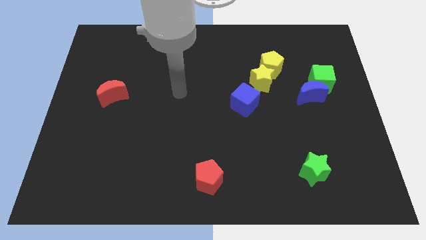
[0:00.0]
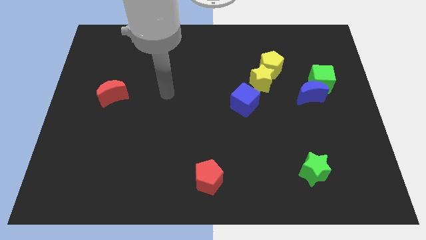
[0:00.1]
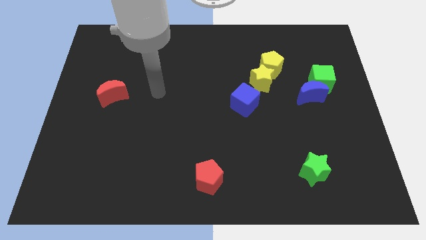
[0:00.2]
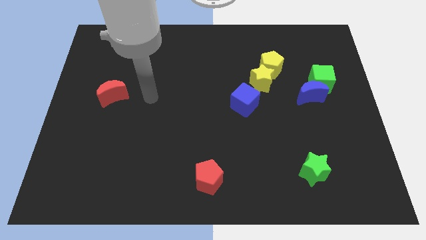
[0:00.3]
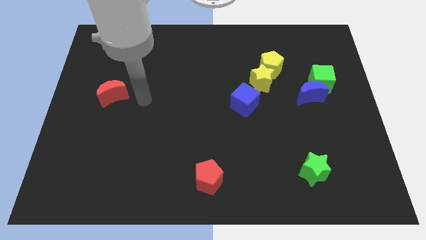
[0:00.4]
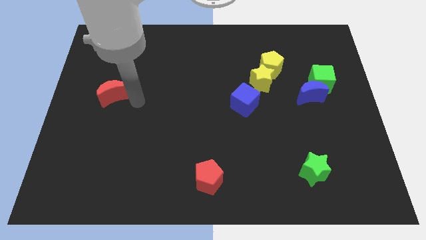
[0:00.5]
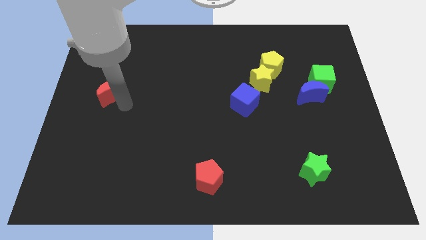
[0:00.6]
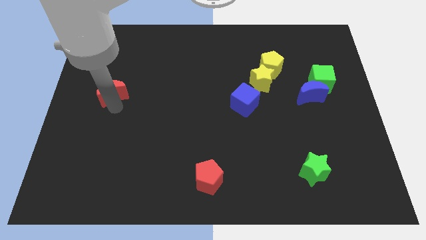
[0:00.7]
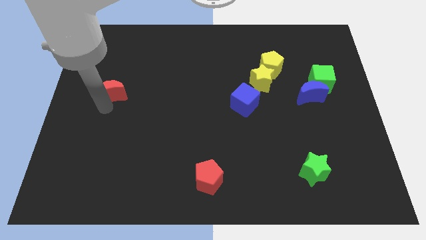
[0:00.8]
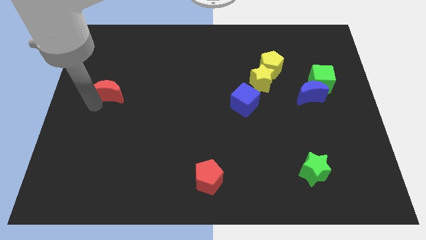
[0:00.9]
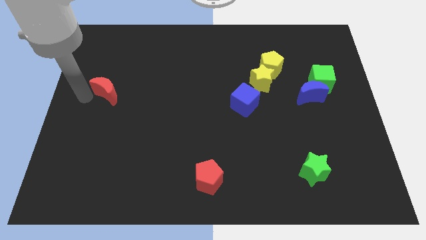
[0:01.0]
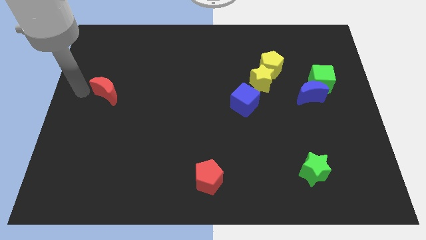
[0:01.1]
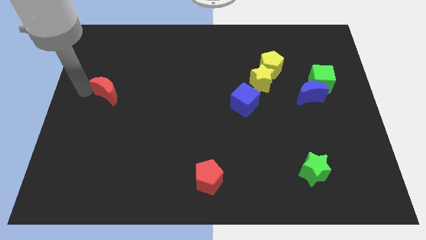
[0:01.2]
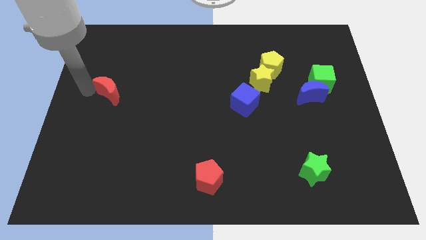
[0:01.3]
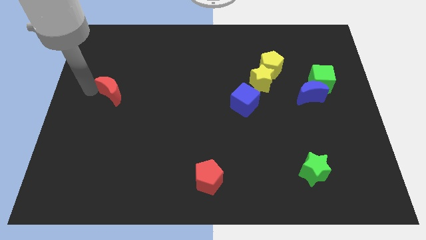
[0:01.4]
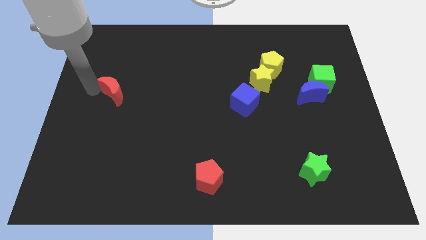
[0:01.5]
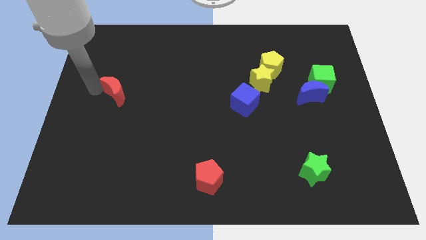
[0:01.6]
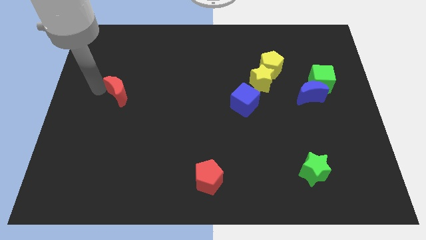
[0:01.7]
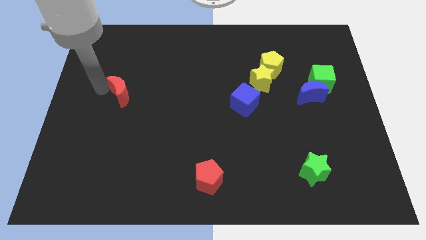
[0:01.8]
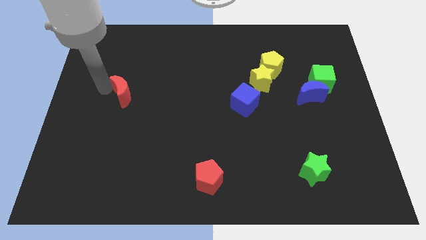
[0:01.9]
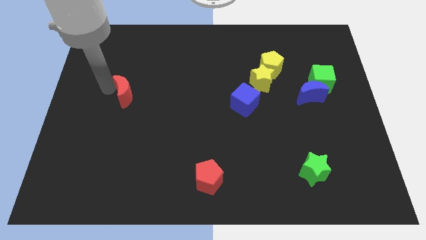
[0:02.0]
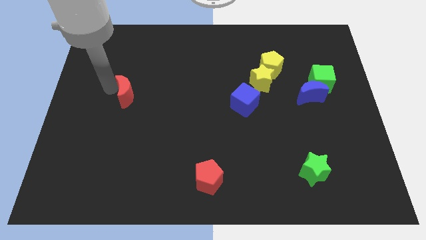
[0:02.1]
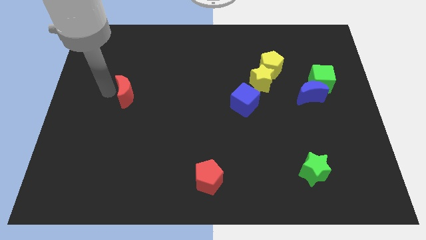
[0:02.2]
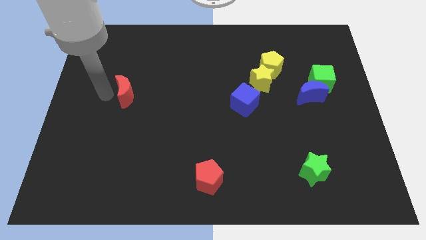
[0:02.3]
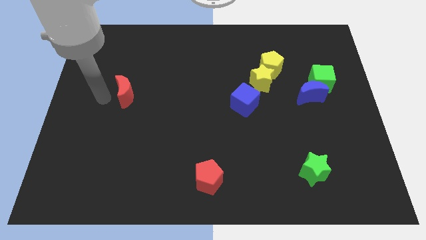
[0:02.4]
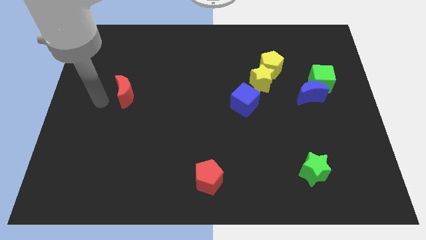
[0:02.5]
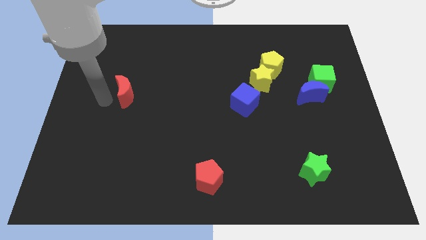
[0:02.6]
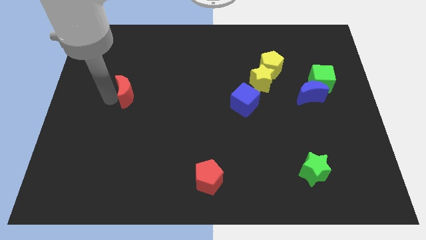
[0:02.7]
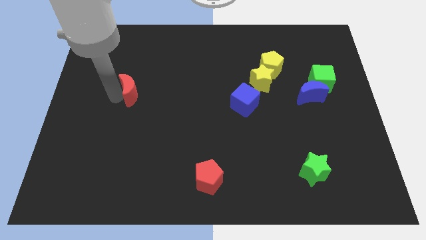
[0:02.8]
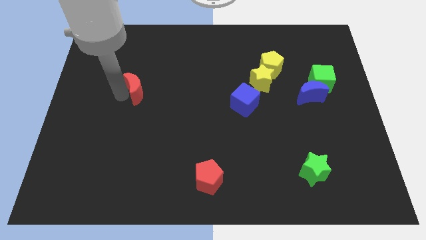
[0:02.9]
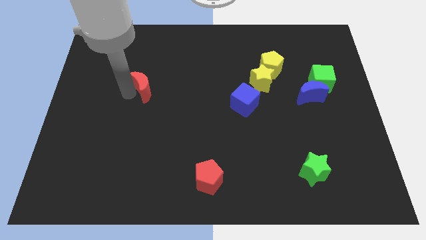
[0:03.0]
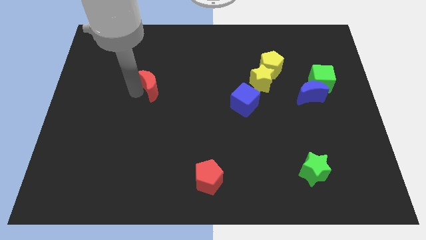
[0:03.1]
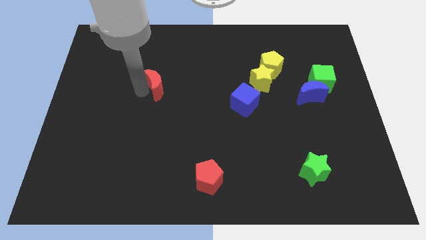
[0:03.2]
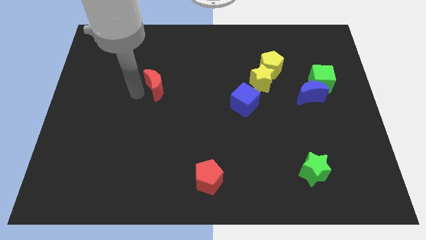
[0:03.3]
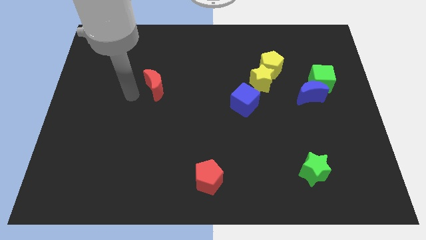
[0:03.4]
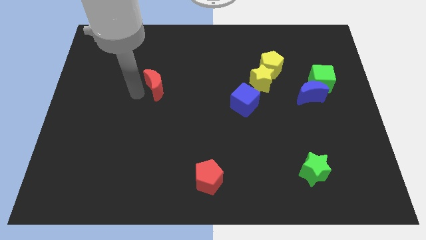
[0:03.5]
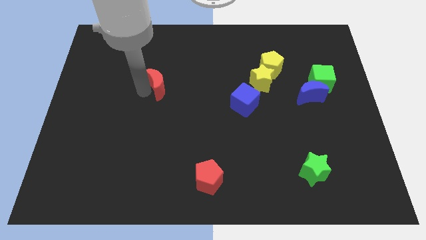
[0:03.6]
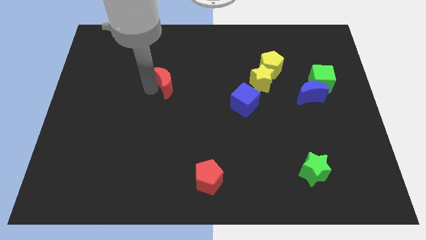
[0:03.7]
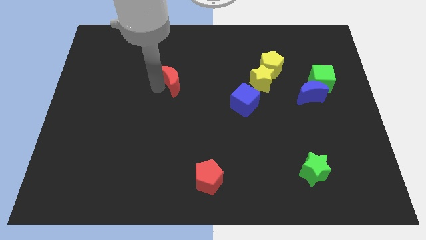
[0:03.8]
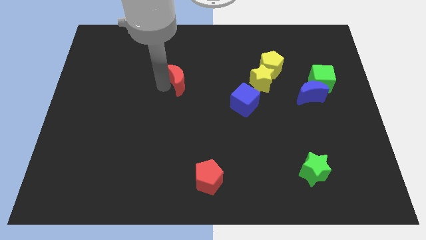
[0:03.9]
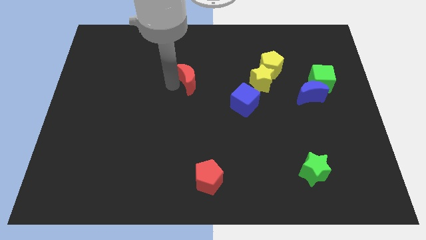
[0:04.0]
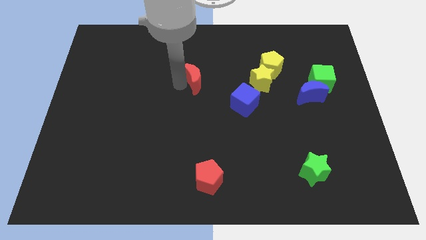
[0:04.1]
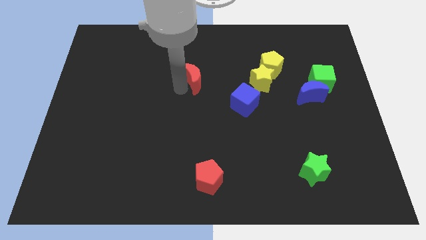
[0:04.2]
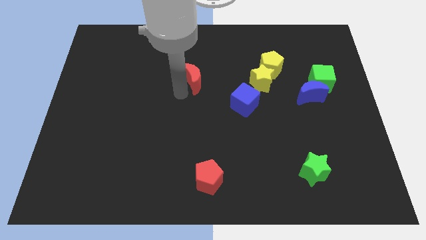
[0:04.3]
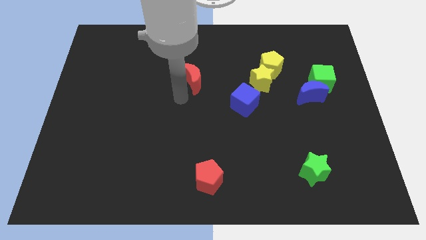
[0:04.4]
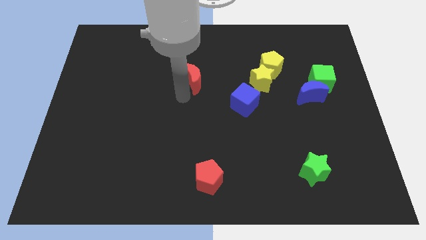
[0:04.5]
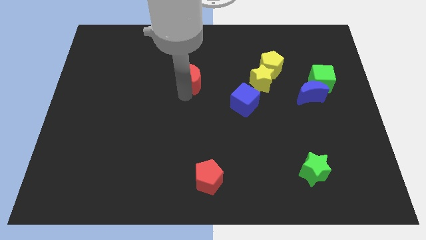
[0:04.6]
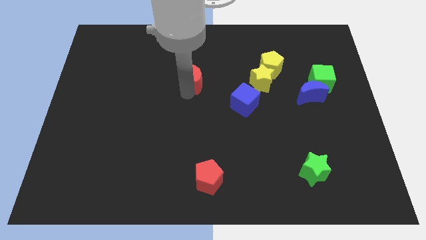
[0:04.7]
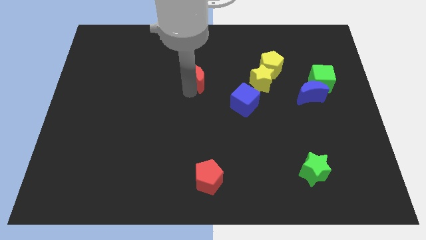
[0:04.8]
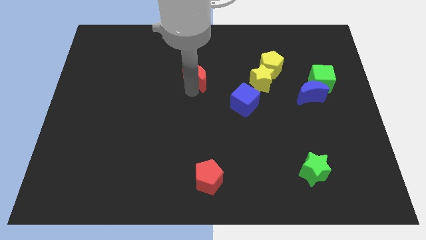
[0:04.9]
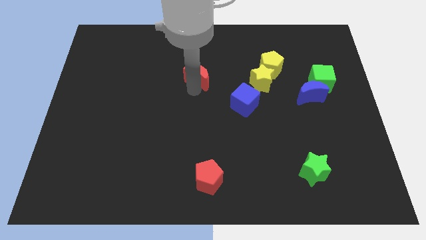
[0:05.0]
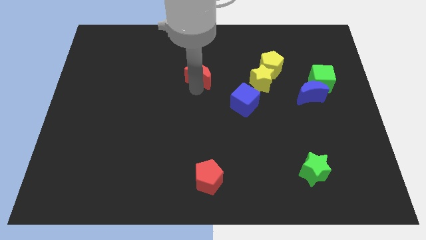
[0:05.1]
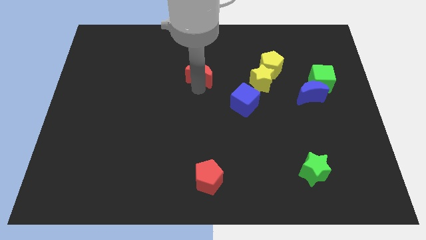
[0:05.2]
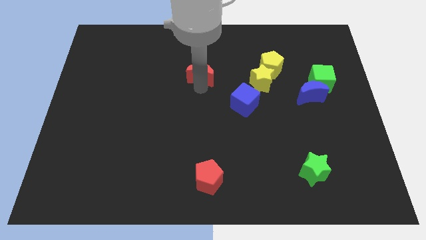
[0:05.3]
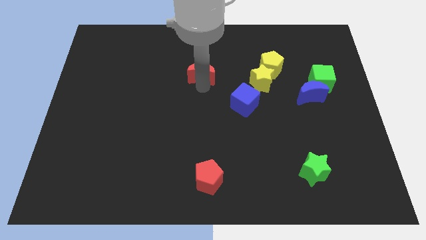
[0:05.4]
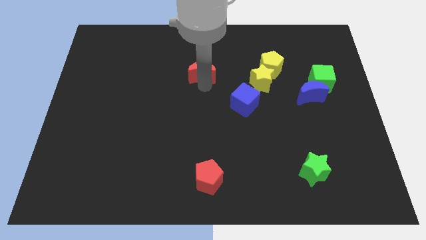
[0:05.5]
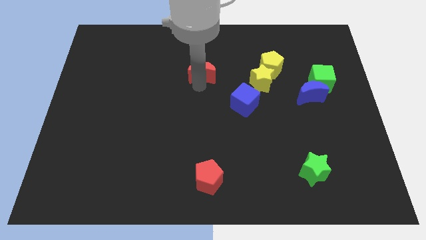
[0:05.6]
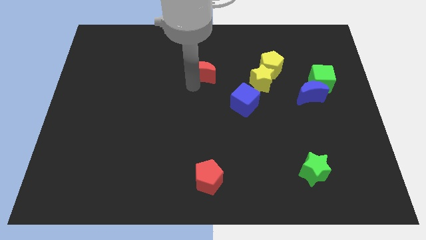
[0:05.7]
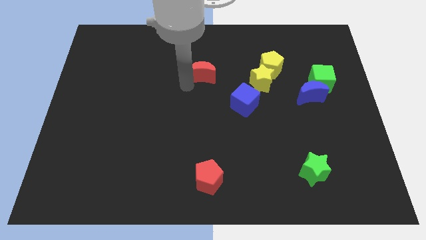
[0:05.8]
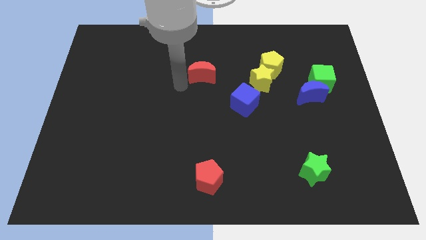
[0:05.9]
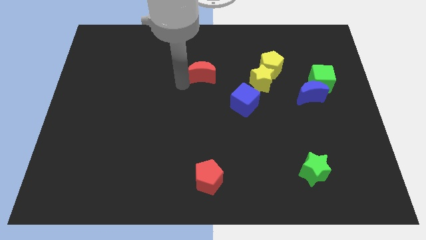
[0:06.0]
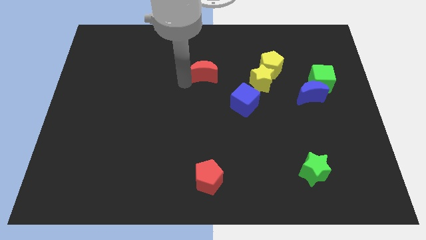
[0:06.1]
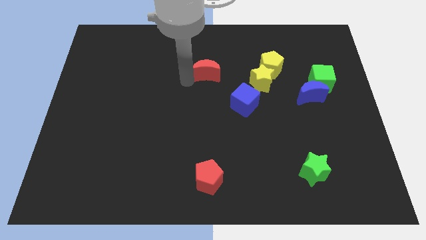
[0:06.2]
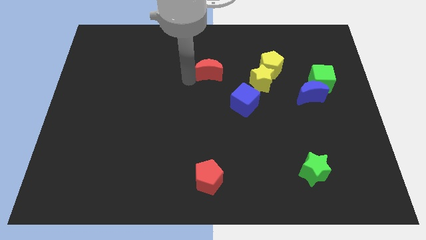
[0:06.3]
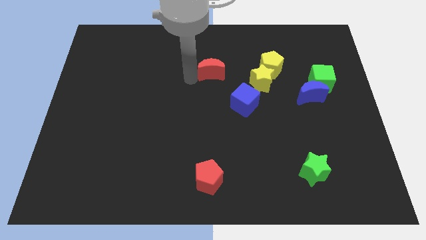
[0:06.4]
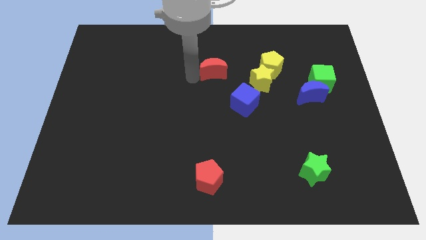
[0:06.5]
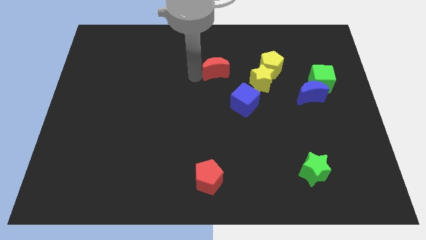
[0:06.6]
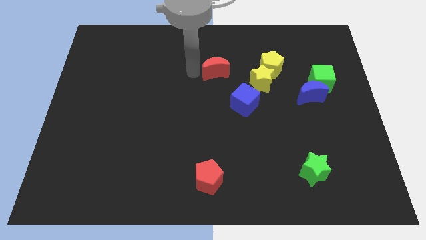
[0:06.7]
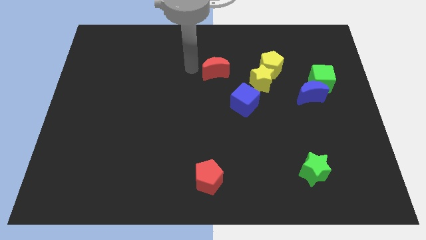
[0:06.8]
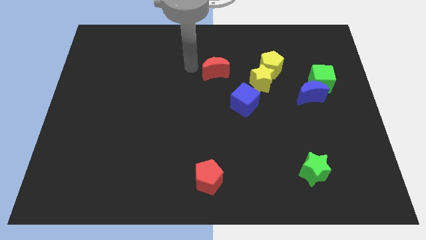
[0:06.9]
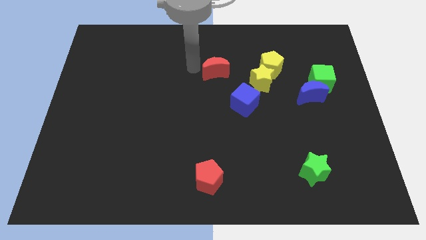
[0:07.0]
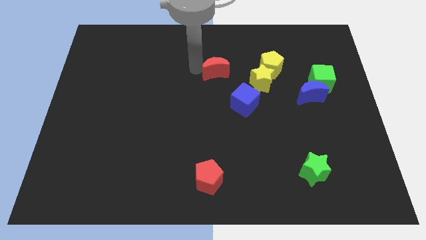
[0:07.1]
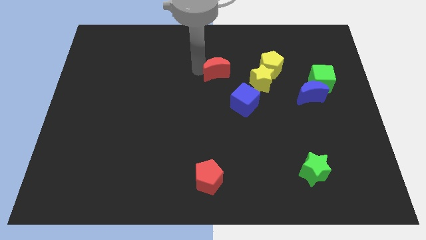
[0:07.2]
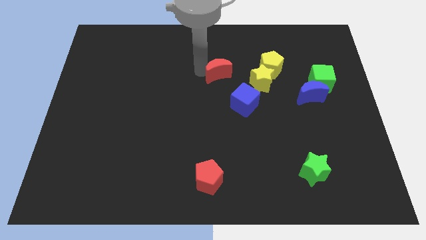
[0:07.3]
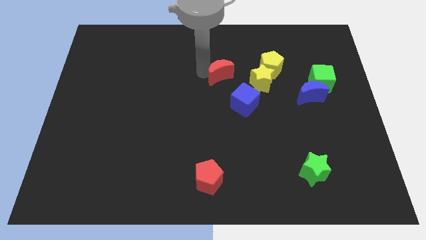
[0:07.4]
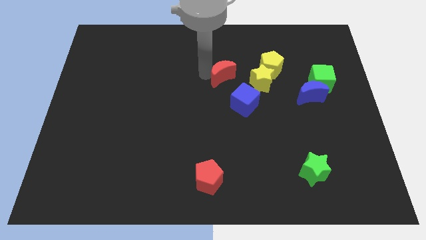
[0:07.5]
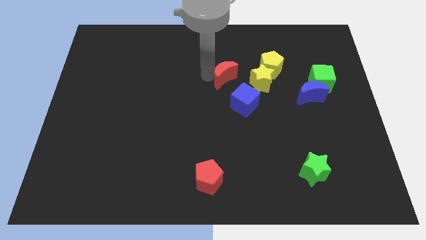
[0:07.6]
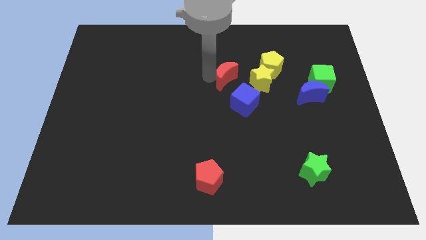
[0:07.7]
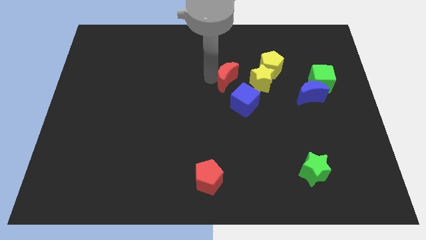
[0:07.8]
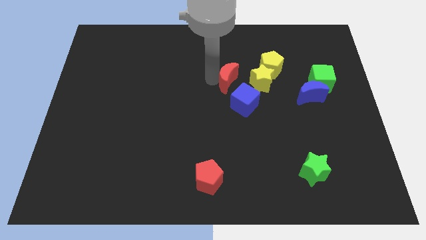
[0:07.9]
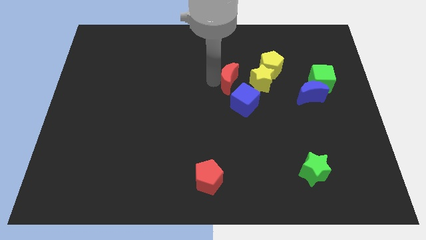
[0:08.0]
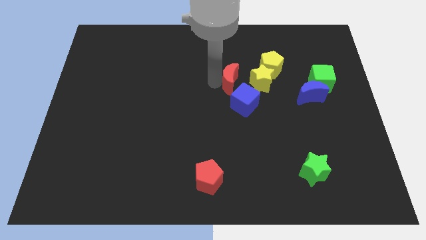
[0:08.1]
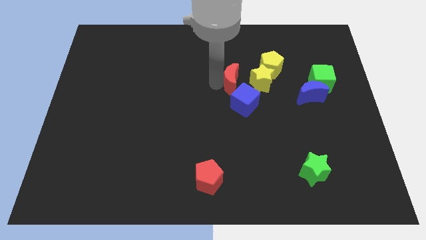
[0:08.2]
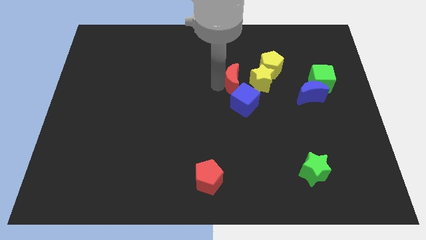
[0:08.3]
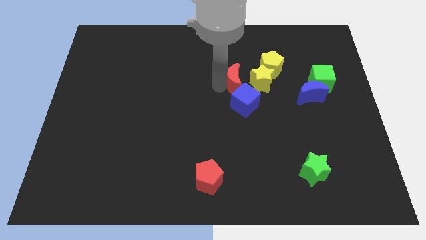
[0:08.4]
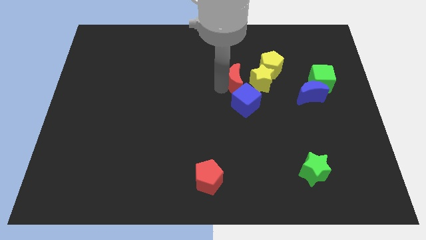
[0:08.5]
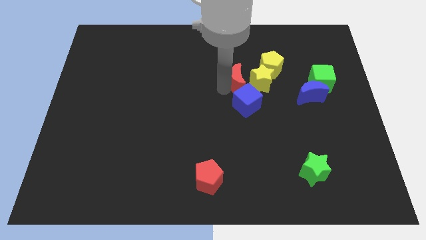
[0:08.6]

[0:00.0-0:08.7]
move the red moon next to the yellow star
